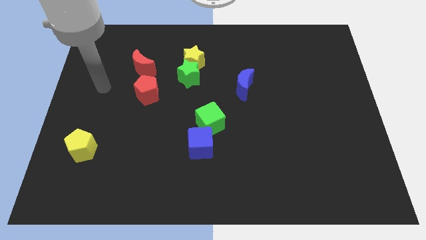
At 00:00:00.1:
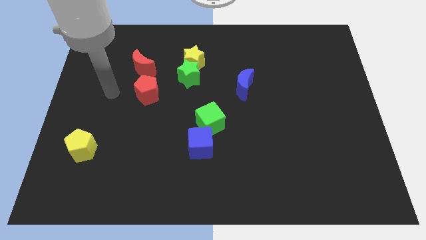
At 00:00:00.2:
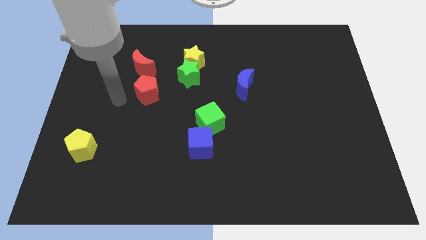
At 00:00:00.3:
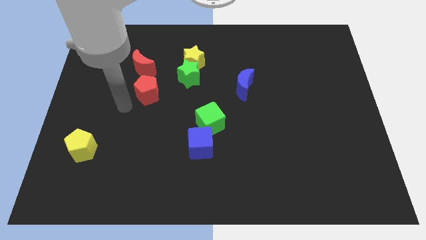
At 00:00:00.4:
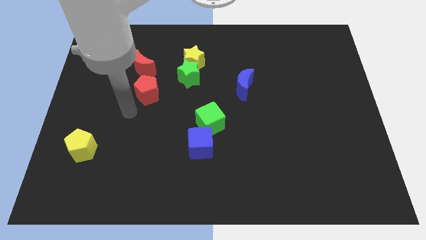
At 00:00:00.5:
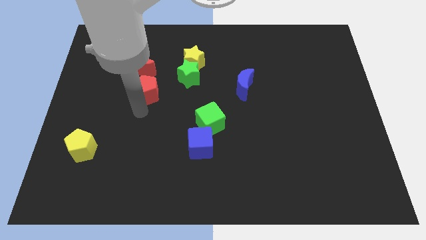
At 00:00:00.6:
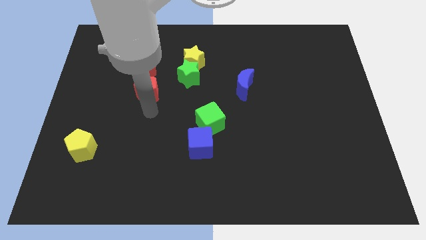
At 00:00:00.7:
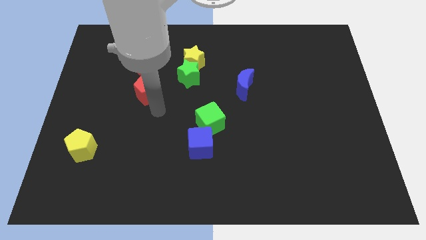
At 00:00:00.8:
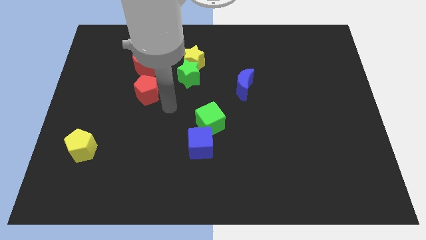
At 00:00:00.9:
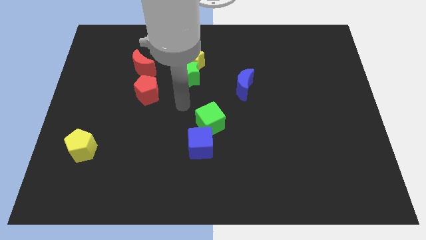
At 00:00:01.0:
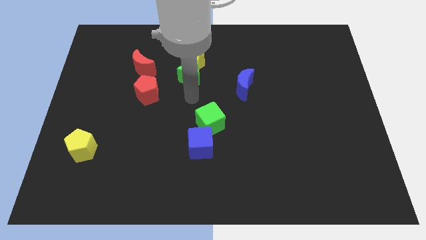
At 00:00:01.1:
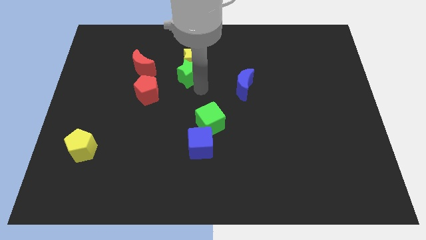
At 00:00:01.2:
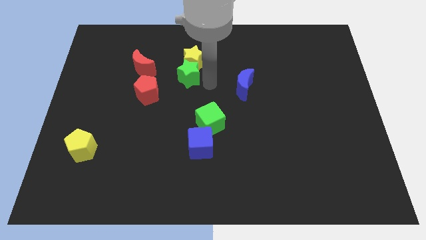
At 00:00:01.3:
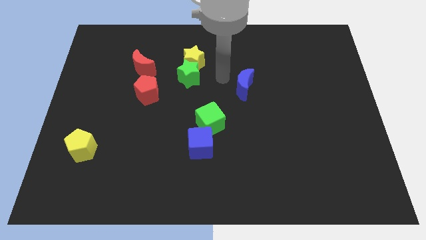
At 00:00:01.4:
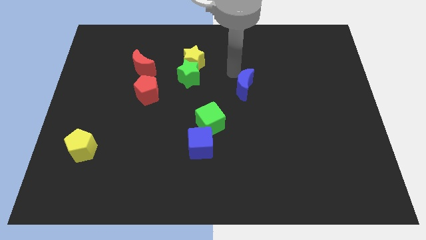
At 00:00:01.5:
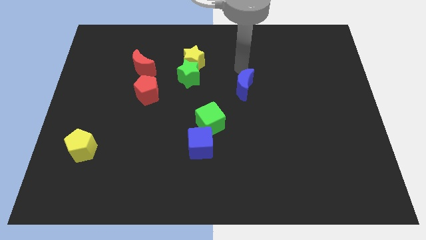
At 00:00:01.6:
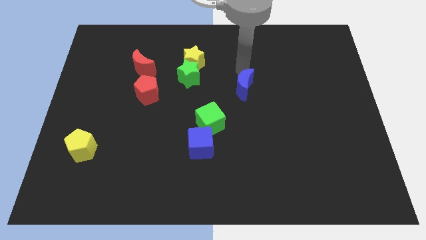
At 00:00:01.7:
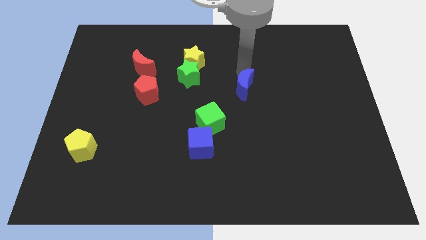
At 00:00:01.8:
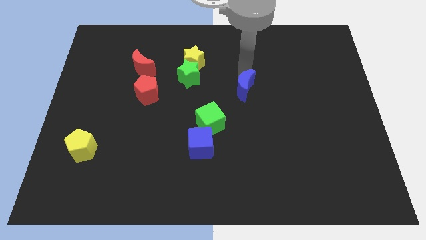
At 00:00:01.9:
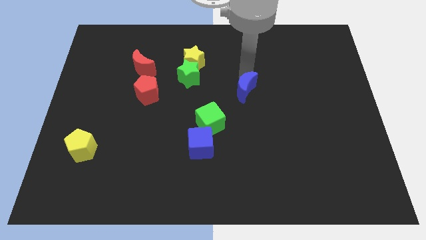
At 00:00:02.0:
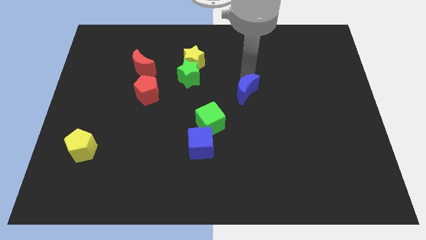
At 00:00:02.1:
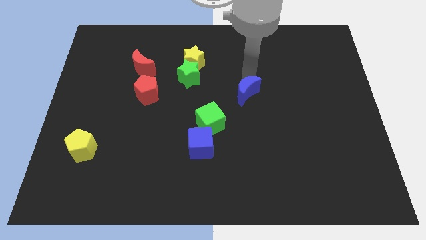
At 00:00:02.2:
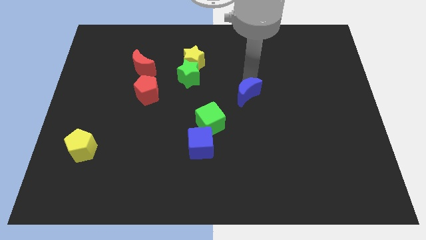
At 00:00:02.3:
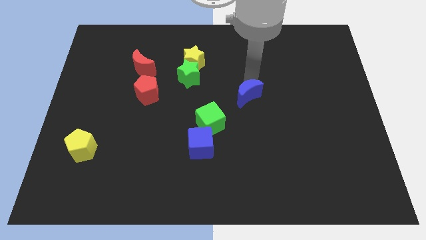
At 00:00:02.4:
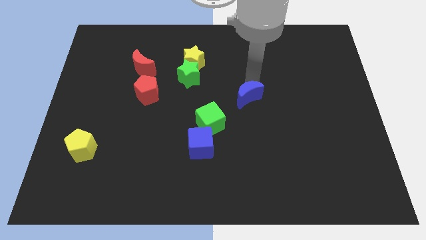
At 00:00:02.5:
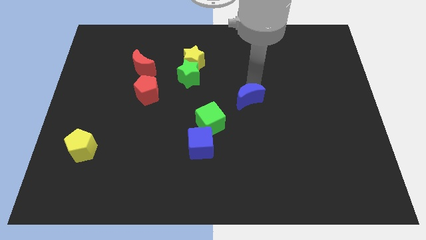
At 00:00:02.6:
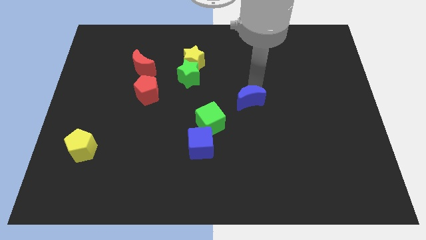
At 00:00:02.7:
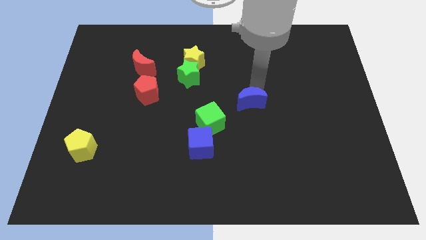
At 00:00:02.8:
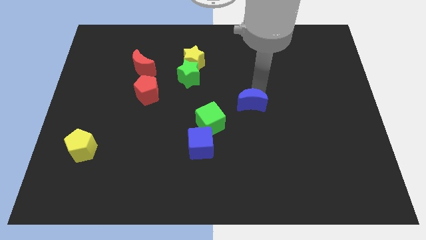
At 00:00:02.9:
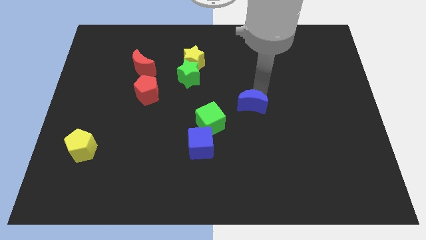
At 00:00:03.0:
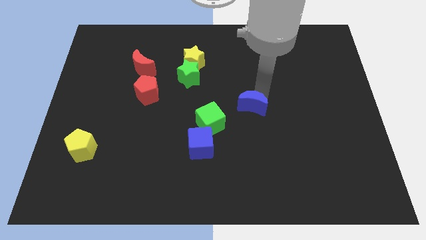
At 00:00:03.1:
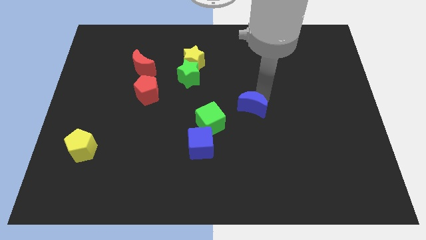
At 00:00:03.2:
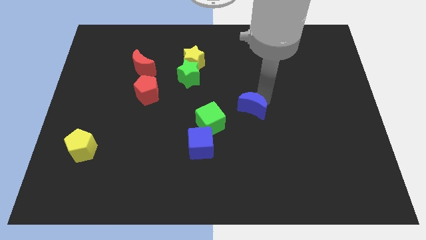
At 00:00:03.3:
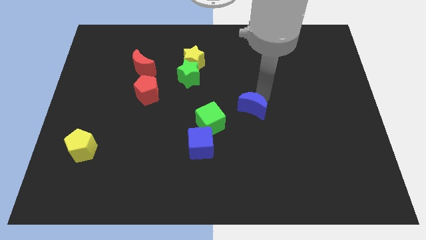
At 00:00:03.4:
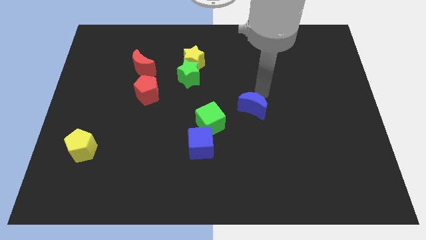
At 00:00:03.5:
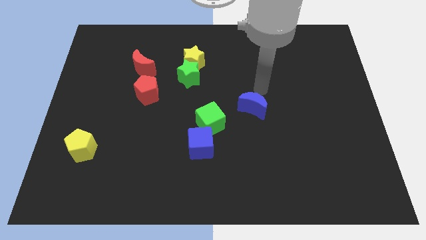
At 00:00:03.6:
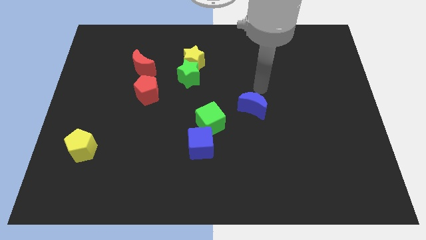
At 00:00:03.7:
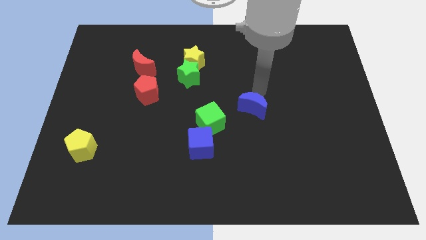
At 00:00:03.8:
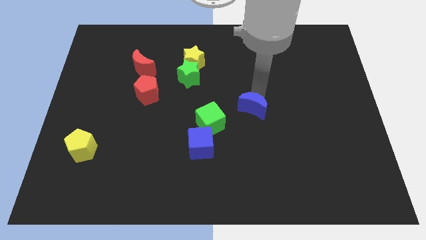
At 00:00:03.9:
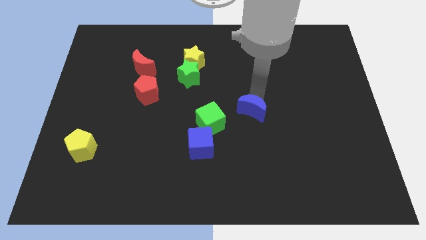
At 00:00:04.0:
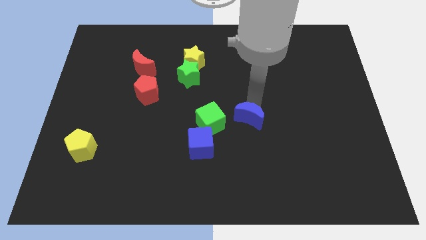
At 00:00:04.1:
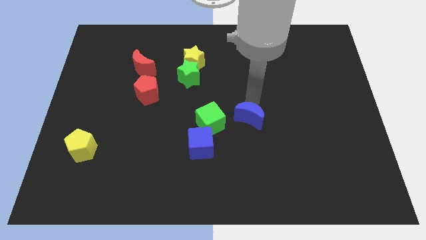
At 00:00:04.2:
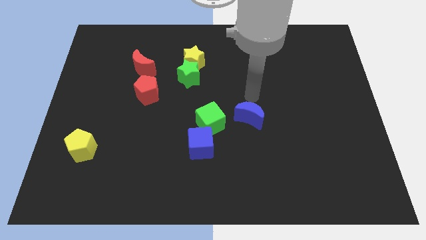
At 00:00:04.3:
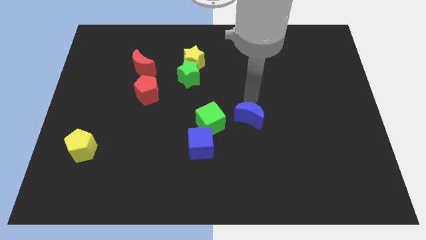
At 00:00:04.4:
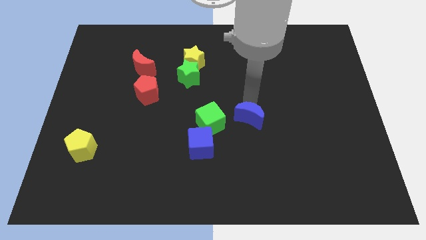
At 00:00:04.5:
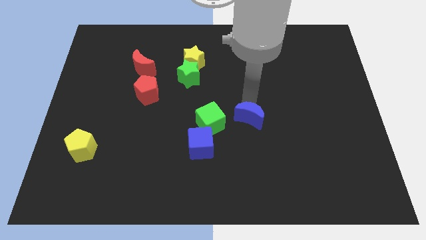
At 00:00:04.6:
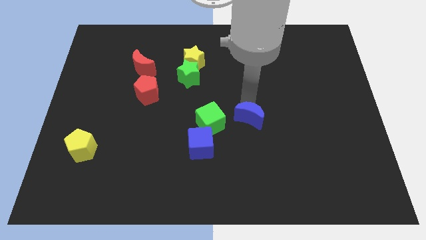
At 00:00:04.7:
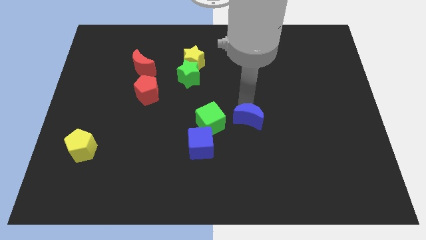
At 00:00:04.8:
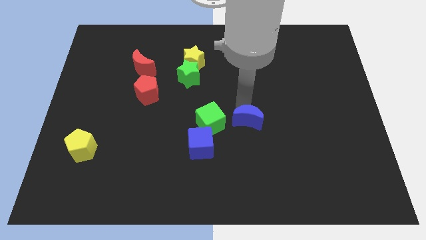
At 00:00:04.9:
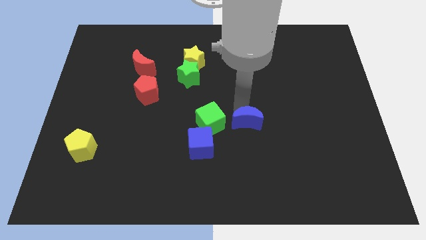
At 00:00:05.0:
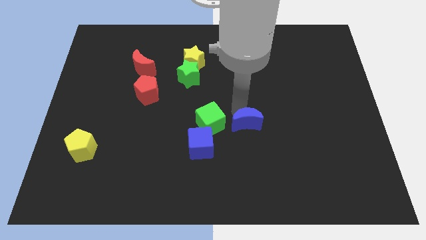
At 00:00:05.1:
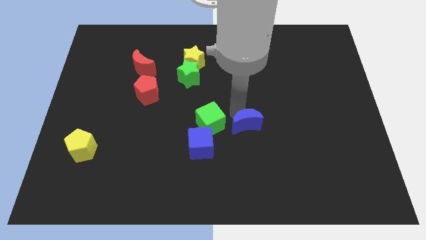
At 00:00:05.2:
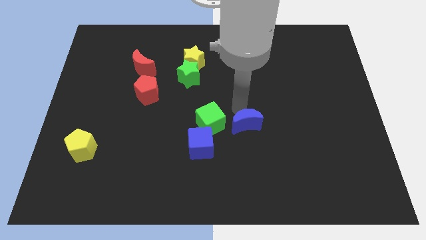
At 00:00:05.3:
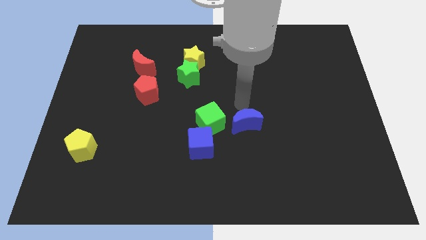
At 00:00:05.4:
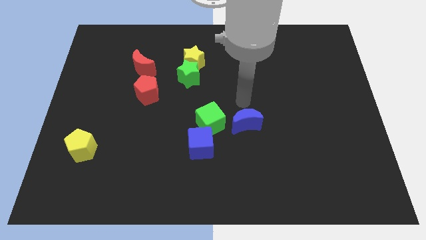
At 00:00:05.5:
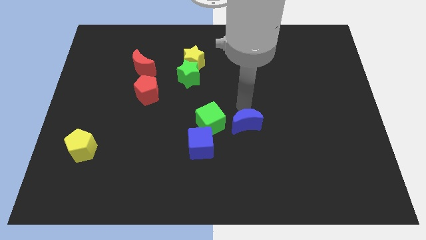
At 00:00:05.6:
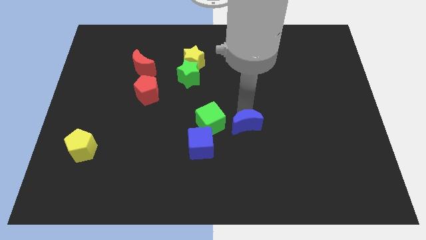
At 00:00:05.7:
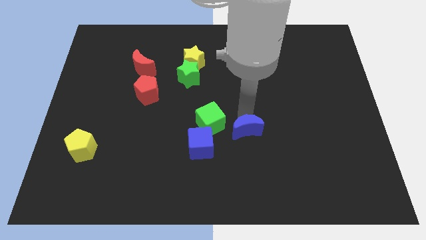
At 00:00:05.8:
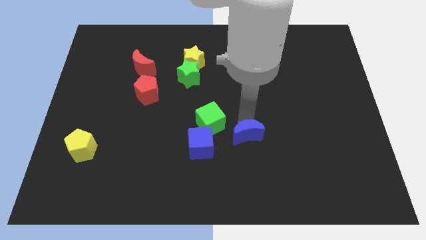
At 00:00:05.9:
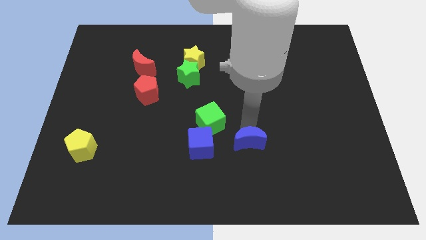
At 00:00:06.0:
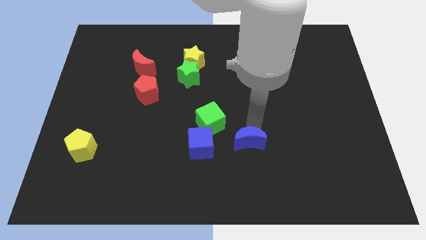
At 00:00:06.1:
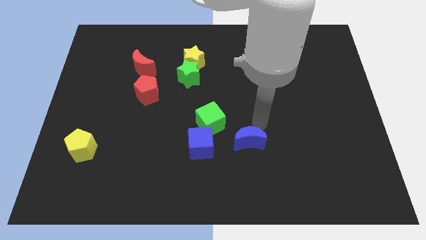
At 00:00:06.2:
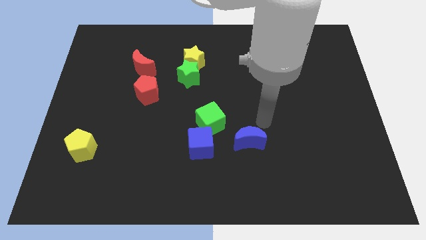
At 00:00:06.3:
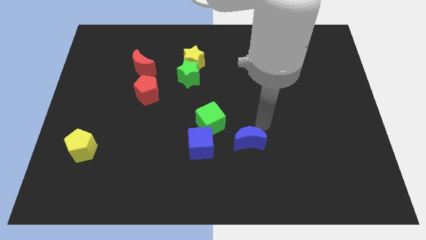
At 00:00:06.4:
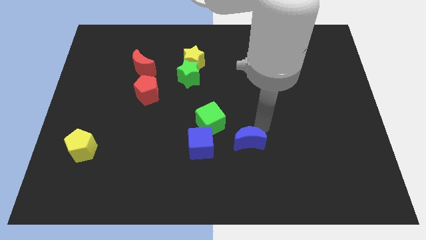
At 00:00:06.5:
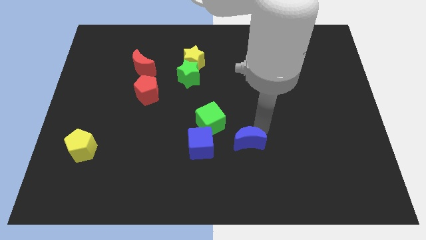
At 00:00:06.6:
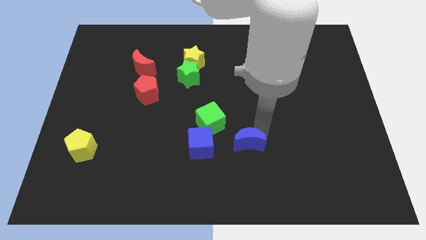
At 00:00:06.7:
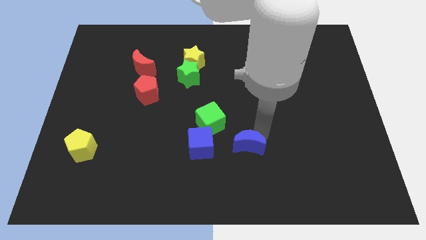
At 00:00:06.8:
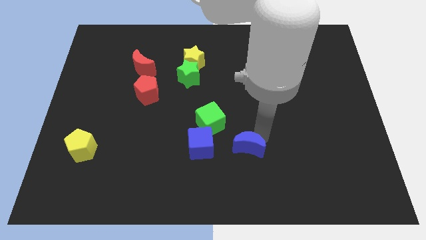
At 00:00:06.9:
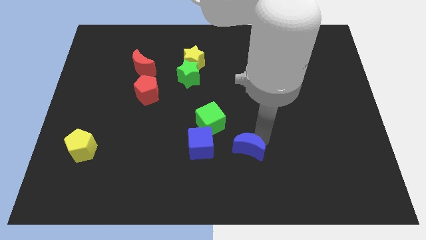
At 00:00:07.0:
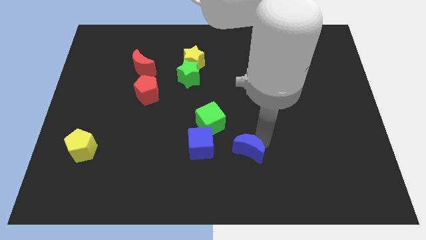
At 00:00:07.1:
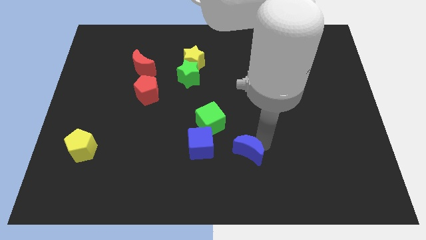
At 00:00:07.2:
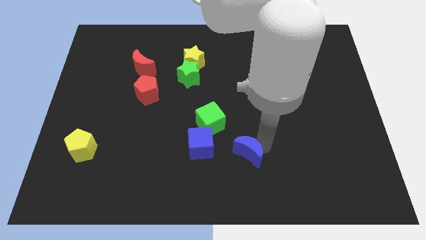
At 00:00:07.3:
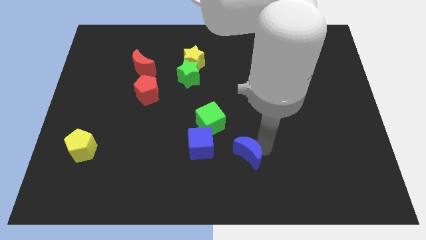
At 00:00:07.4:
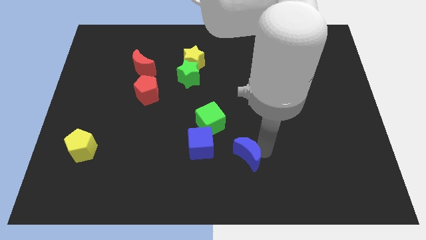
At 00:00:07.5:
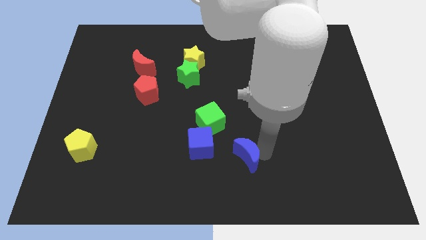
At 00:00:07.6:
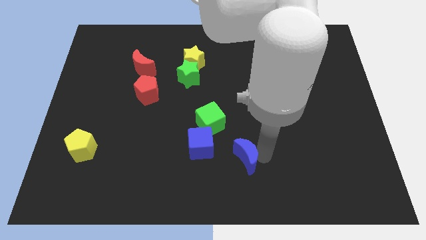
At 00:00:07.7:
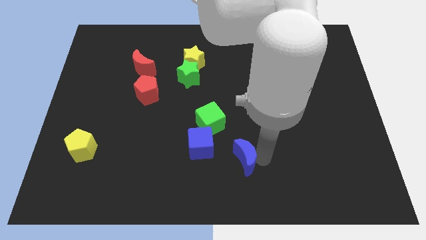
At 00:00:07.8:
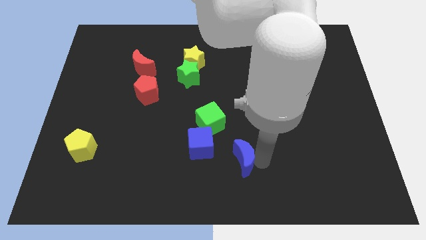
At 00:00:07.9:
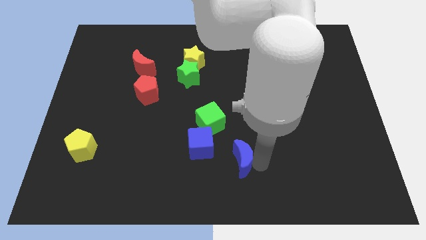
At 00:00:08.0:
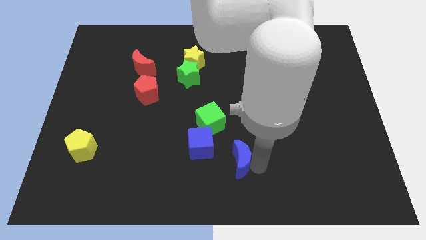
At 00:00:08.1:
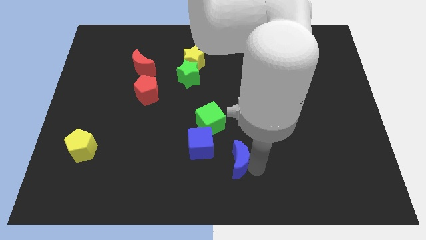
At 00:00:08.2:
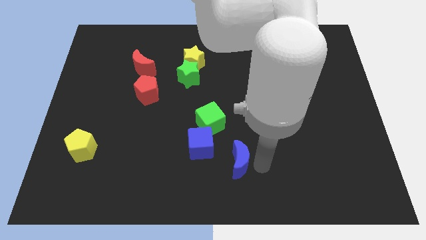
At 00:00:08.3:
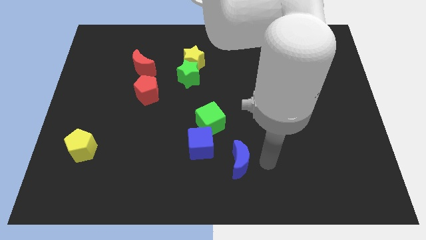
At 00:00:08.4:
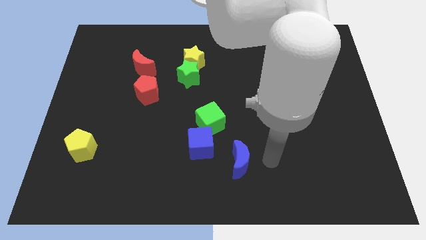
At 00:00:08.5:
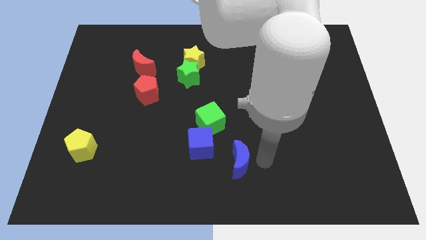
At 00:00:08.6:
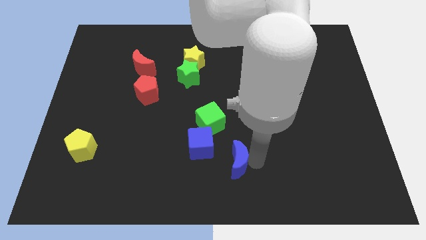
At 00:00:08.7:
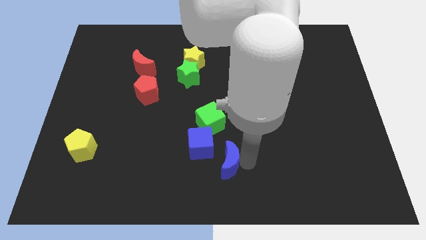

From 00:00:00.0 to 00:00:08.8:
slightly move the blue moon diagonally downwards and left
